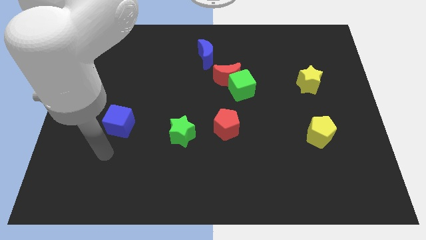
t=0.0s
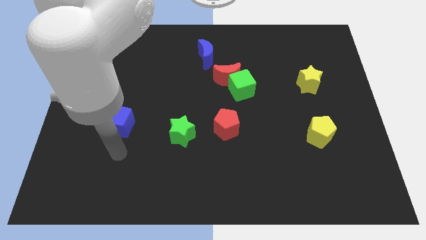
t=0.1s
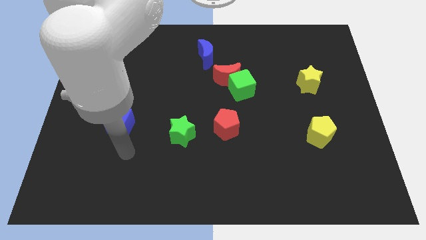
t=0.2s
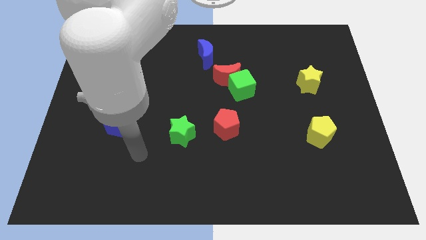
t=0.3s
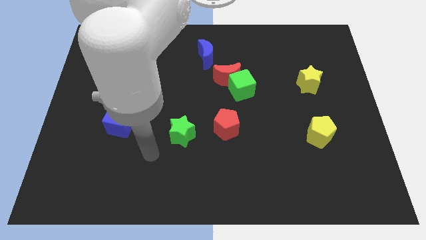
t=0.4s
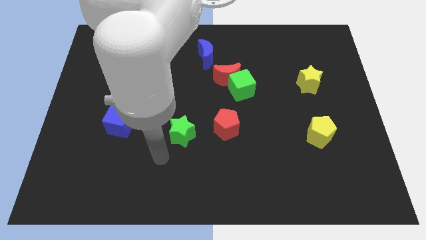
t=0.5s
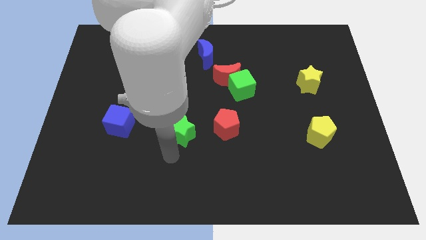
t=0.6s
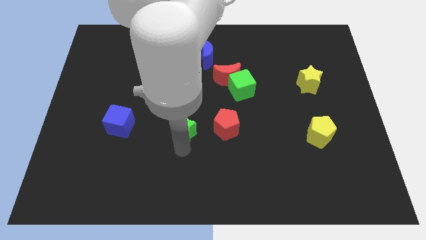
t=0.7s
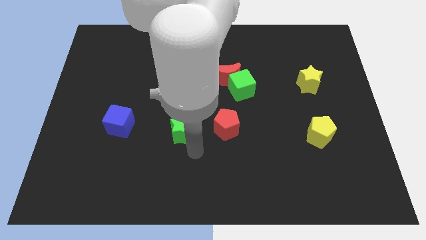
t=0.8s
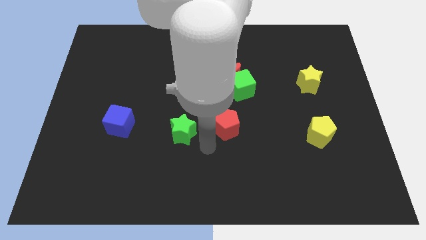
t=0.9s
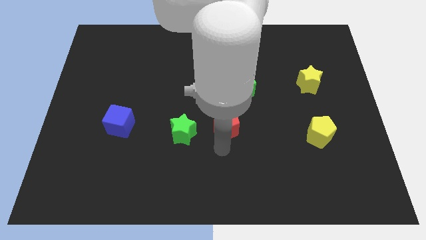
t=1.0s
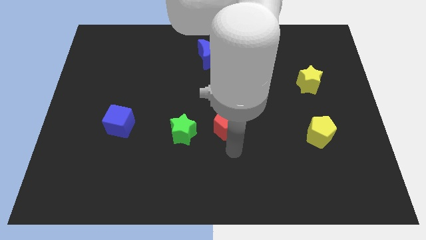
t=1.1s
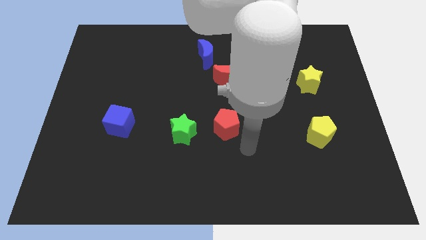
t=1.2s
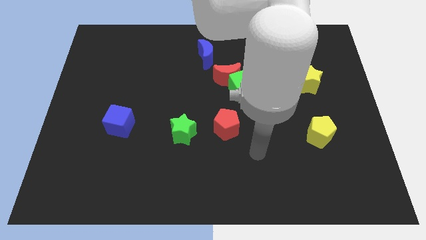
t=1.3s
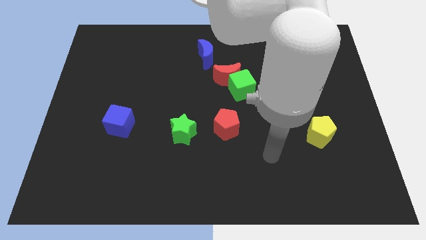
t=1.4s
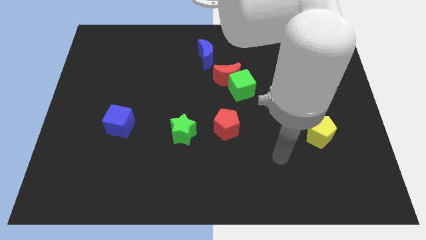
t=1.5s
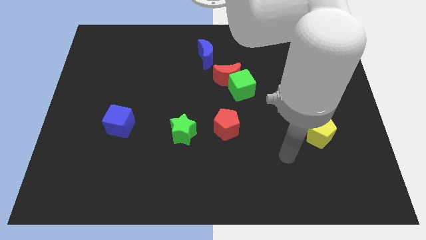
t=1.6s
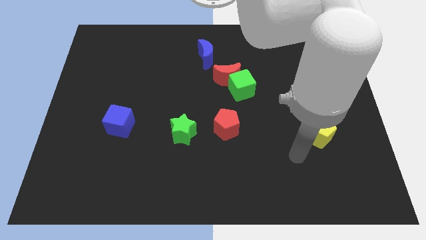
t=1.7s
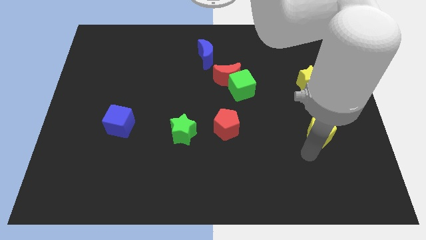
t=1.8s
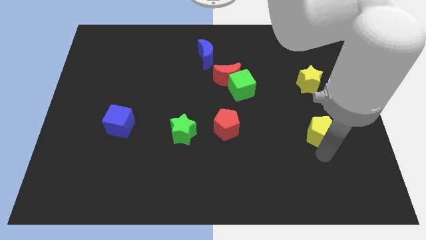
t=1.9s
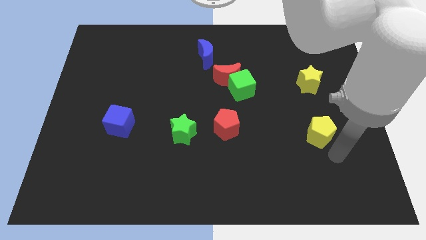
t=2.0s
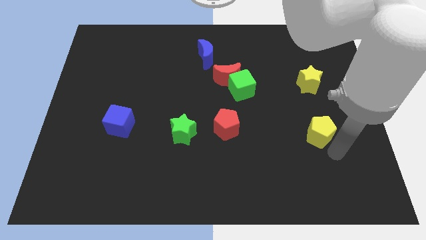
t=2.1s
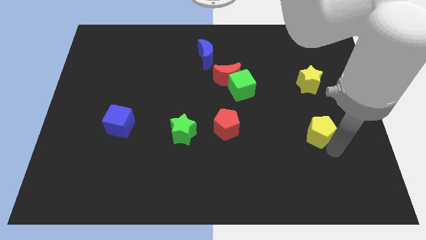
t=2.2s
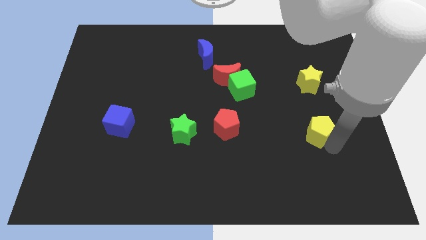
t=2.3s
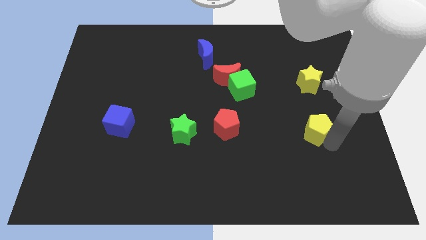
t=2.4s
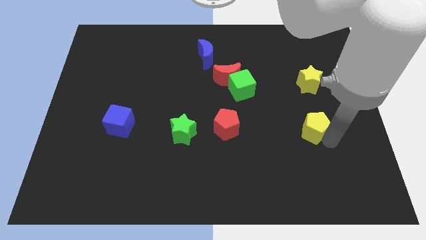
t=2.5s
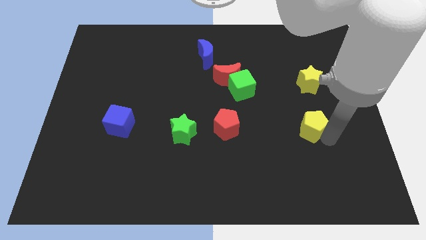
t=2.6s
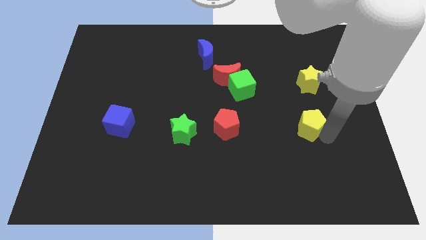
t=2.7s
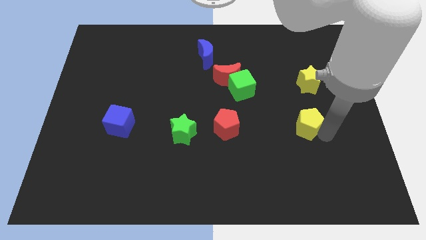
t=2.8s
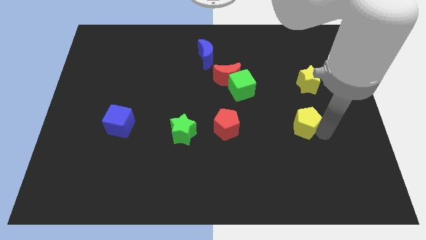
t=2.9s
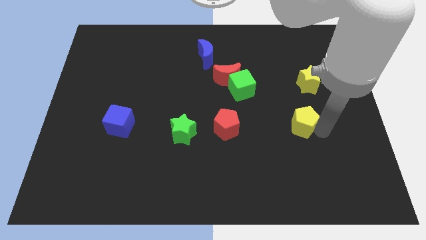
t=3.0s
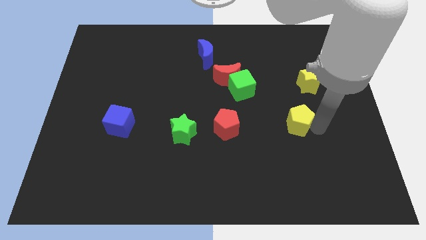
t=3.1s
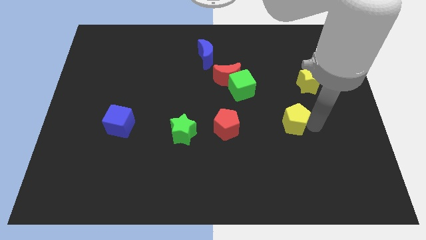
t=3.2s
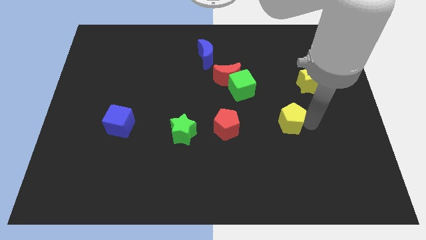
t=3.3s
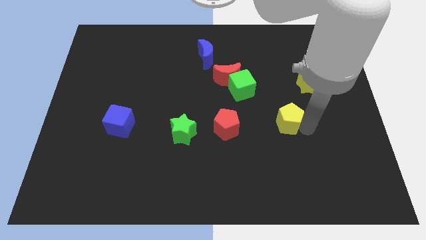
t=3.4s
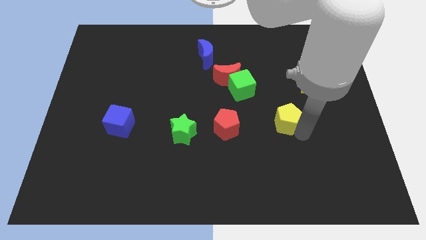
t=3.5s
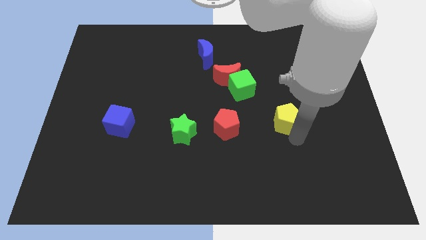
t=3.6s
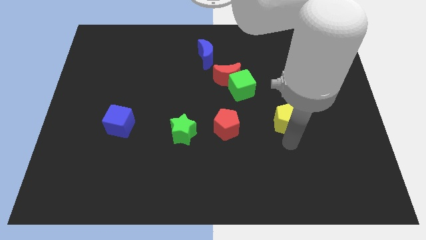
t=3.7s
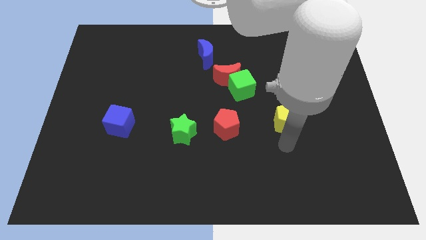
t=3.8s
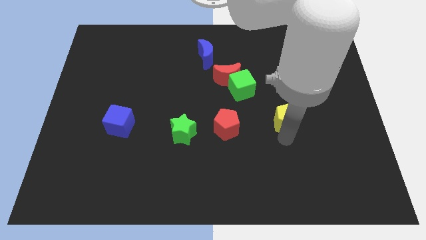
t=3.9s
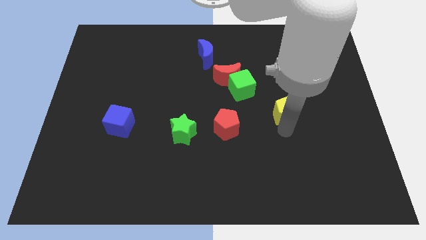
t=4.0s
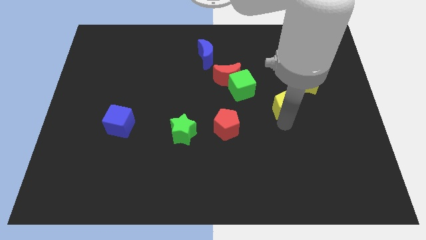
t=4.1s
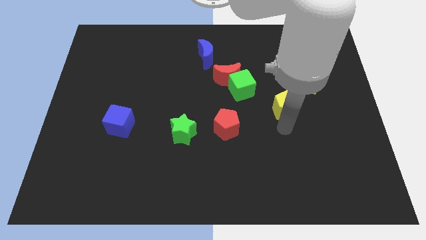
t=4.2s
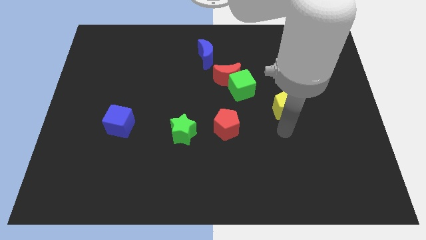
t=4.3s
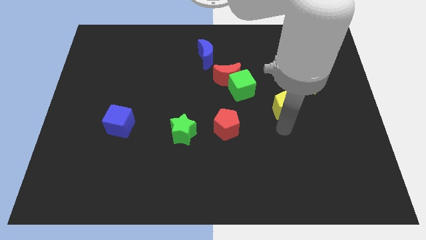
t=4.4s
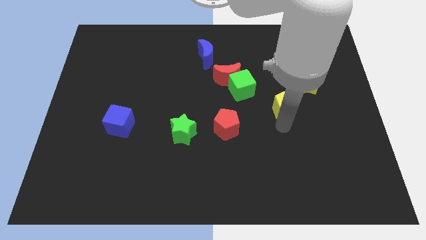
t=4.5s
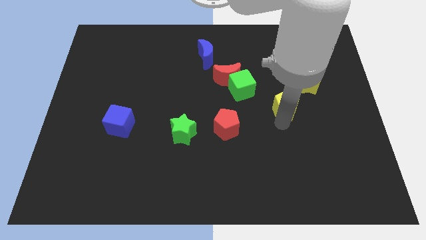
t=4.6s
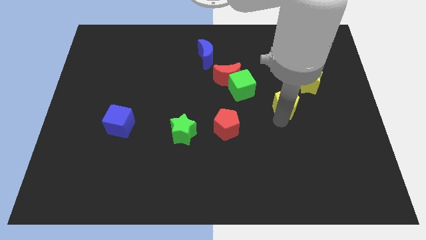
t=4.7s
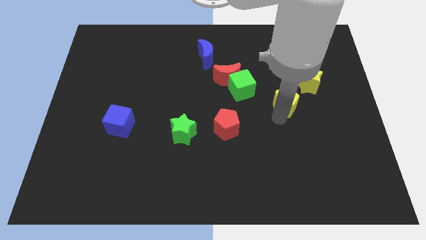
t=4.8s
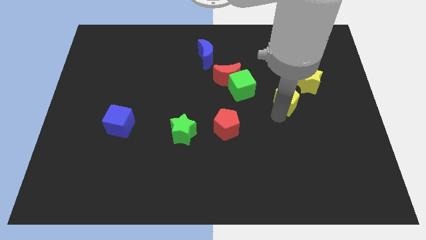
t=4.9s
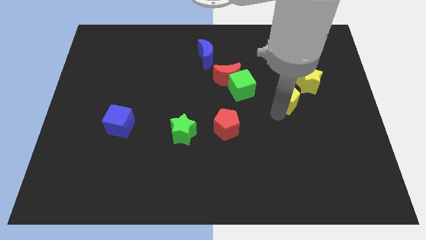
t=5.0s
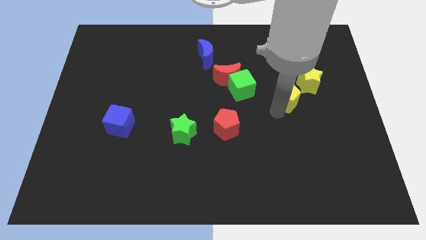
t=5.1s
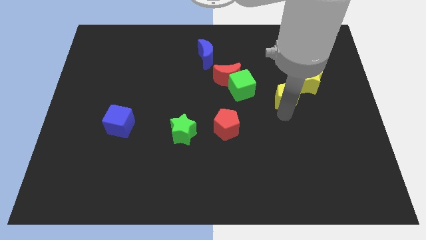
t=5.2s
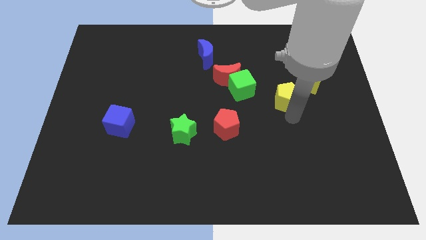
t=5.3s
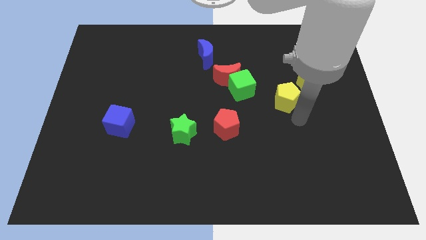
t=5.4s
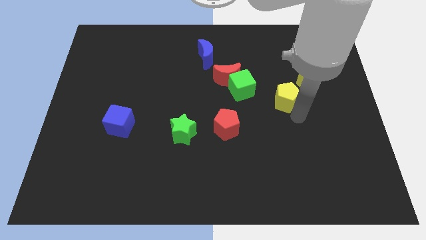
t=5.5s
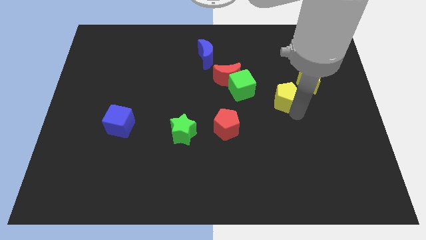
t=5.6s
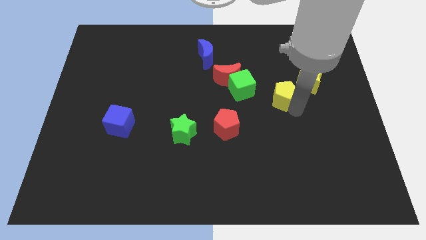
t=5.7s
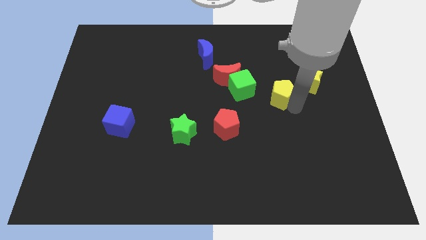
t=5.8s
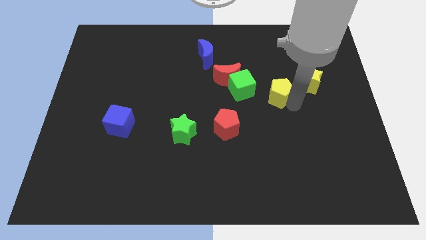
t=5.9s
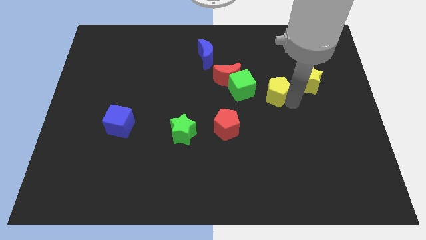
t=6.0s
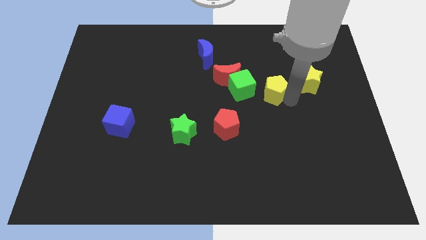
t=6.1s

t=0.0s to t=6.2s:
slide the yellow pentagon just right of the red moon

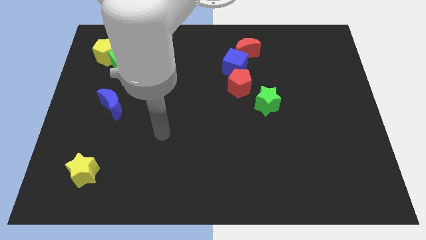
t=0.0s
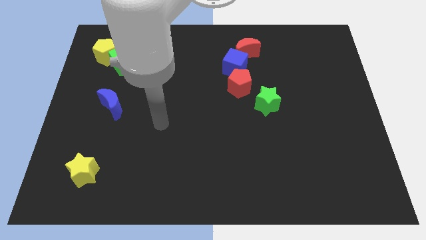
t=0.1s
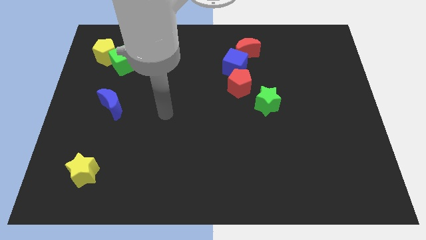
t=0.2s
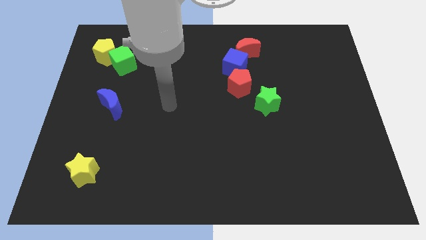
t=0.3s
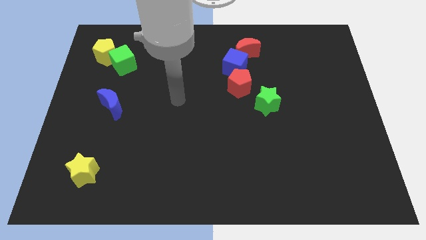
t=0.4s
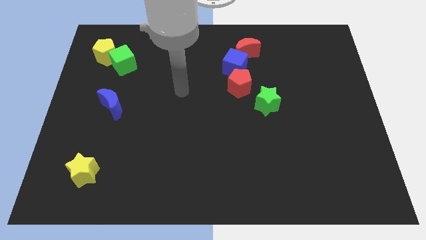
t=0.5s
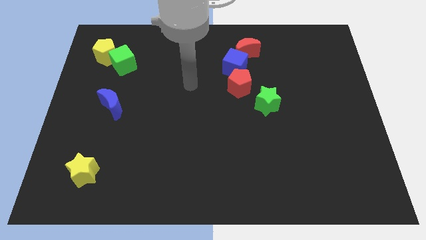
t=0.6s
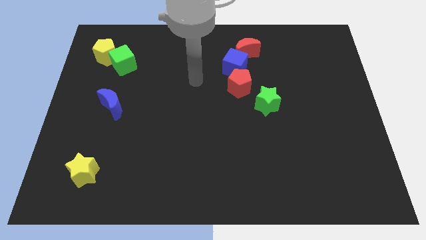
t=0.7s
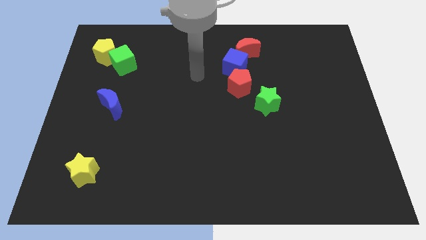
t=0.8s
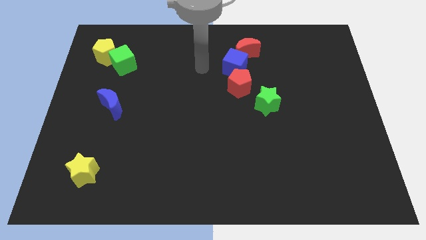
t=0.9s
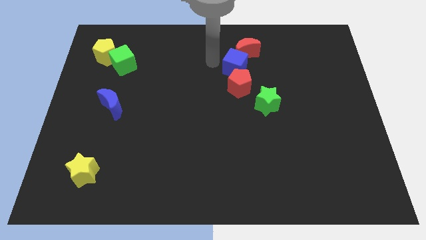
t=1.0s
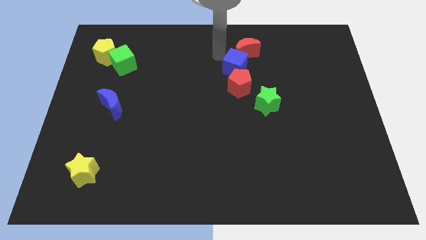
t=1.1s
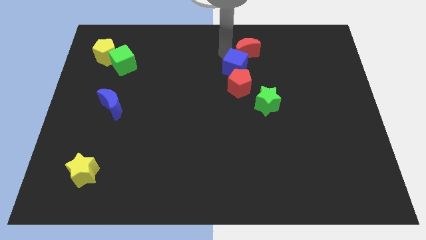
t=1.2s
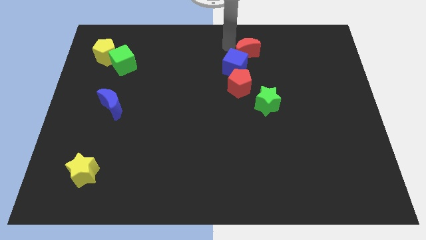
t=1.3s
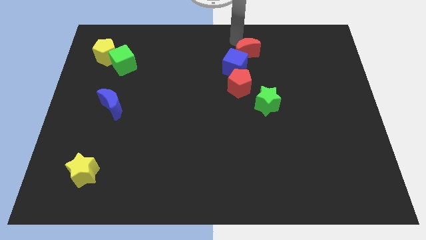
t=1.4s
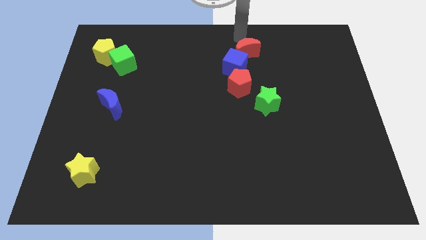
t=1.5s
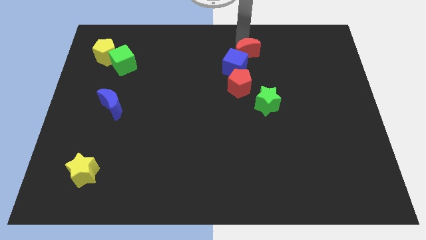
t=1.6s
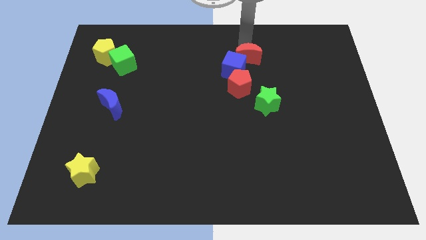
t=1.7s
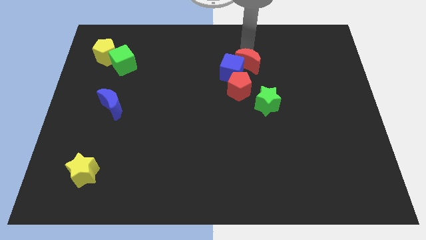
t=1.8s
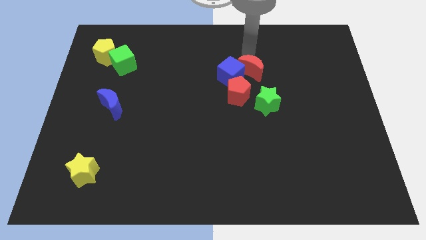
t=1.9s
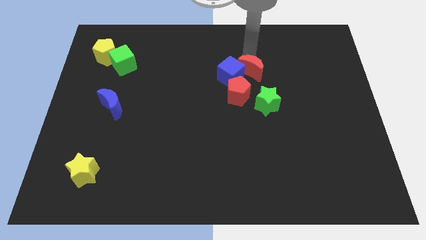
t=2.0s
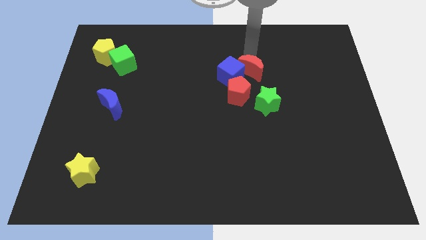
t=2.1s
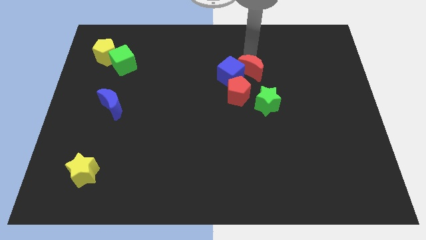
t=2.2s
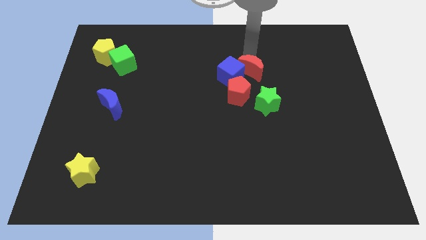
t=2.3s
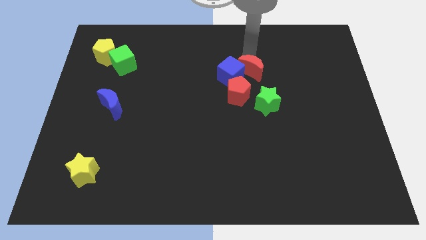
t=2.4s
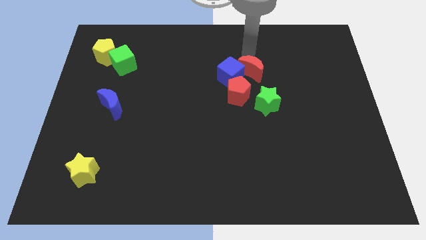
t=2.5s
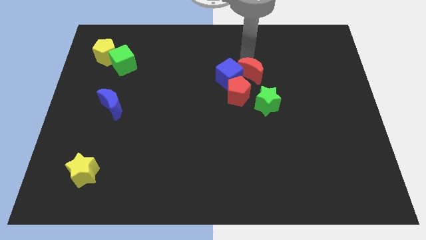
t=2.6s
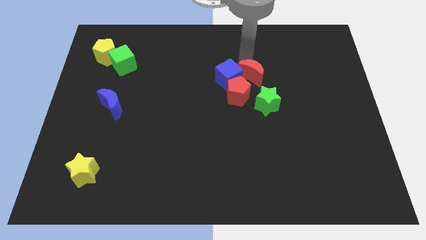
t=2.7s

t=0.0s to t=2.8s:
move the red moon to the bottom right side of the blue cube
